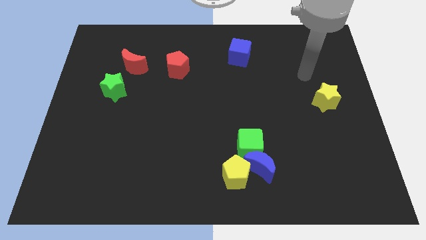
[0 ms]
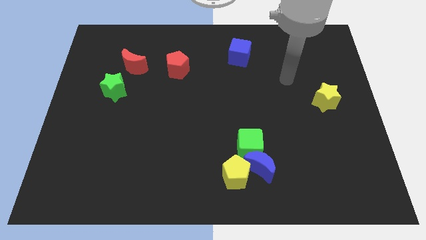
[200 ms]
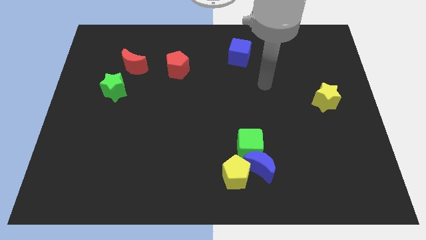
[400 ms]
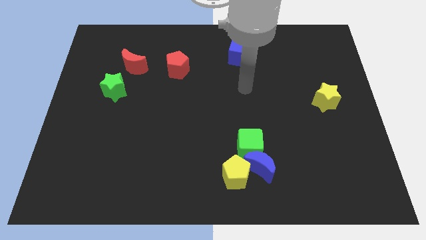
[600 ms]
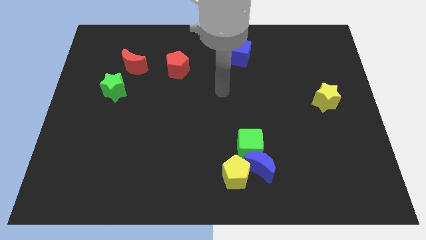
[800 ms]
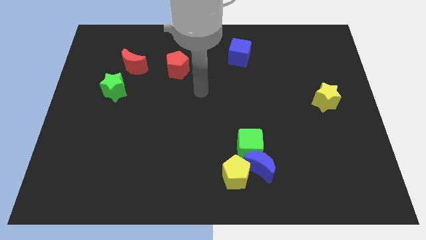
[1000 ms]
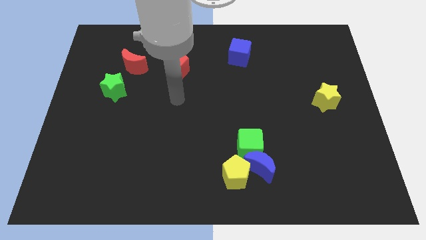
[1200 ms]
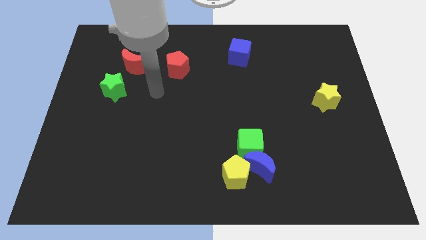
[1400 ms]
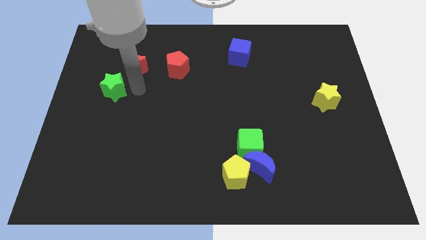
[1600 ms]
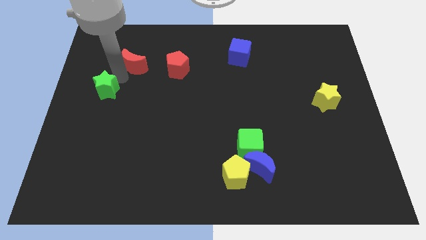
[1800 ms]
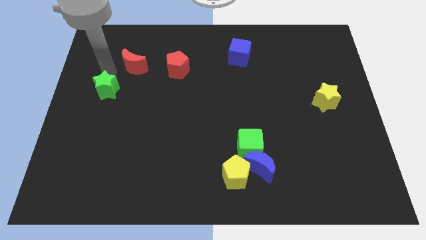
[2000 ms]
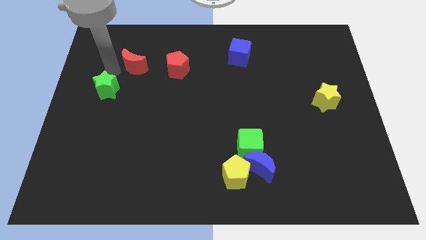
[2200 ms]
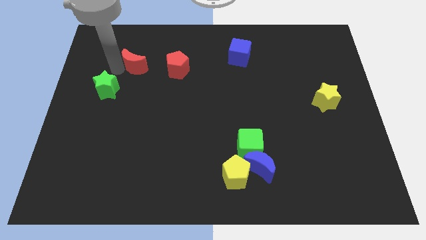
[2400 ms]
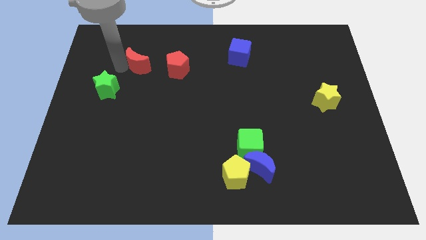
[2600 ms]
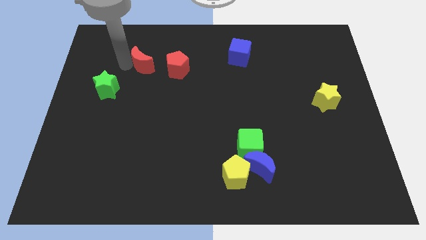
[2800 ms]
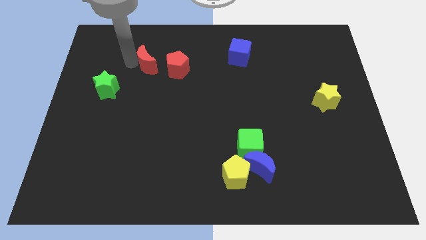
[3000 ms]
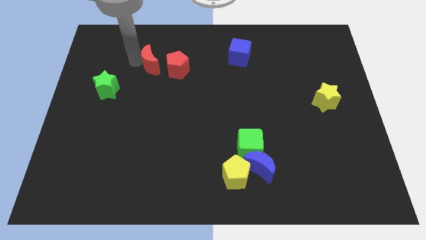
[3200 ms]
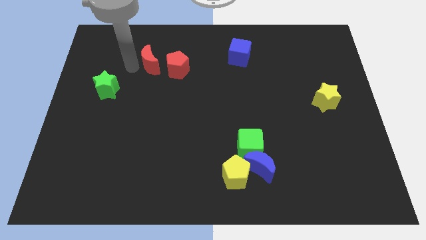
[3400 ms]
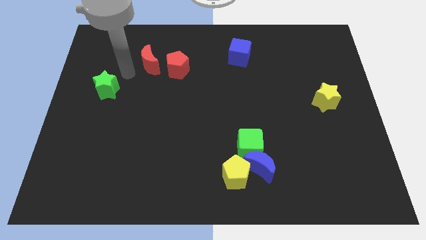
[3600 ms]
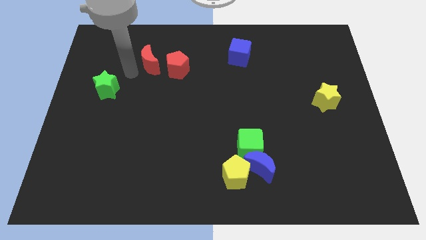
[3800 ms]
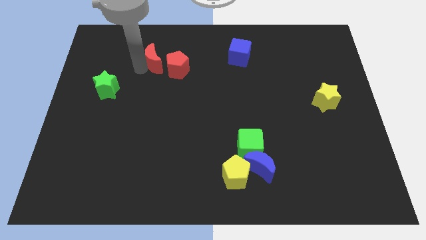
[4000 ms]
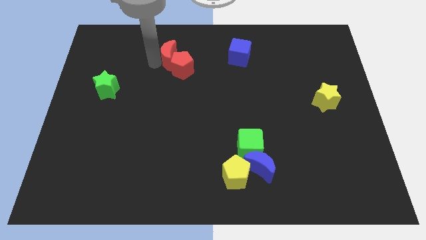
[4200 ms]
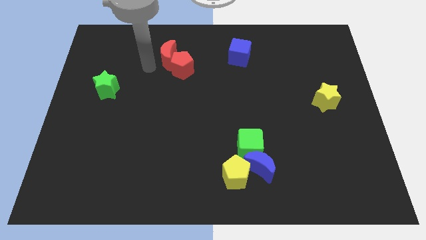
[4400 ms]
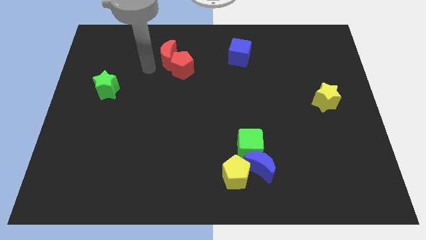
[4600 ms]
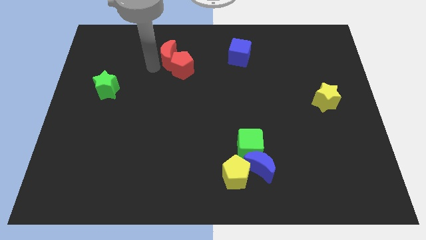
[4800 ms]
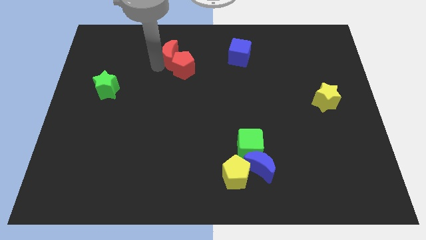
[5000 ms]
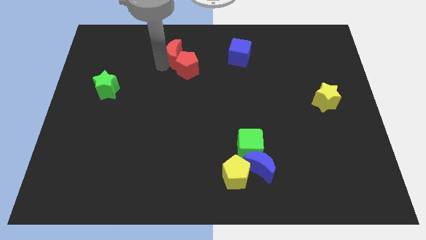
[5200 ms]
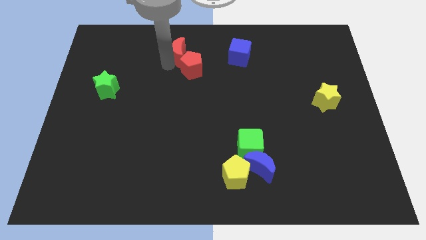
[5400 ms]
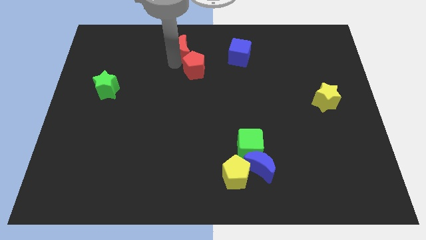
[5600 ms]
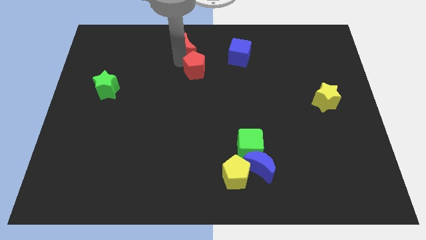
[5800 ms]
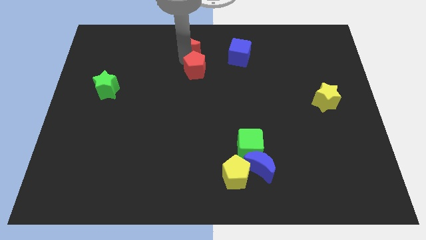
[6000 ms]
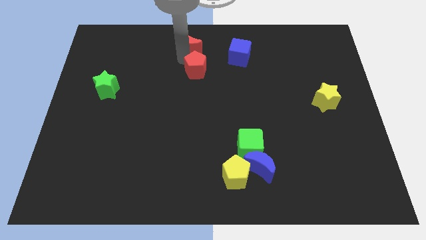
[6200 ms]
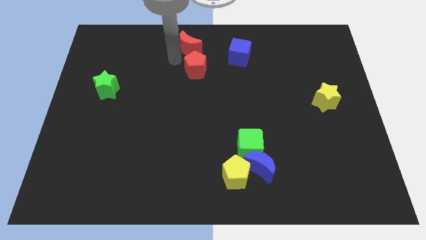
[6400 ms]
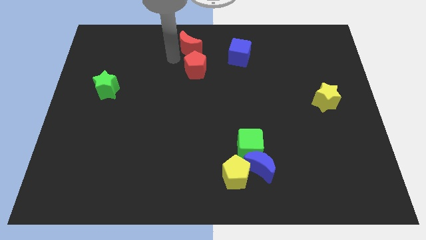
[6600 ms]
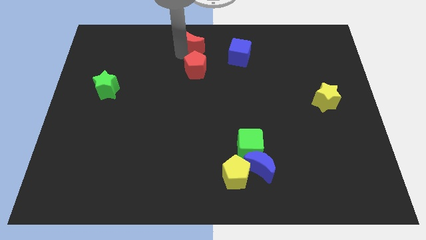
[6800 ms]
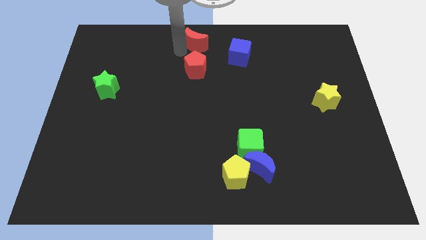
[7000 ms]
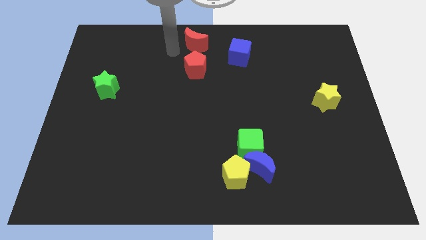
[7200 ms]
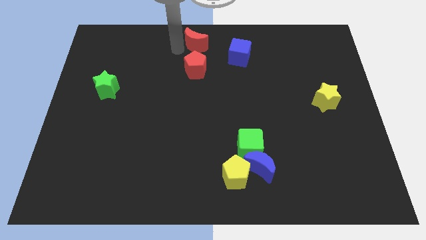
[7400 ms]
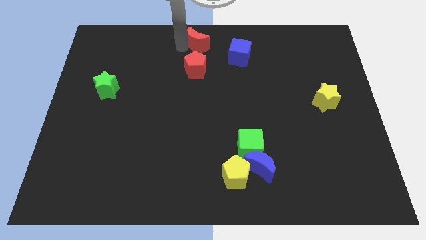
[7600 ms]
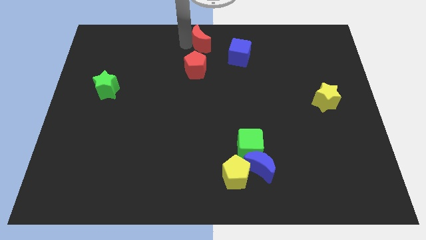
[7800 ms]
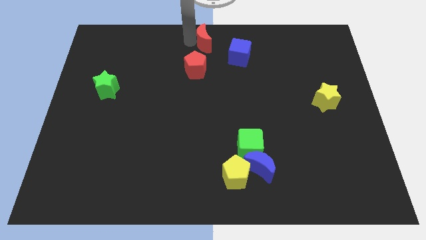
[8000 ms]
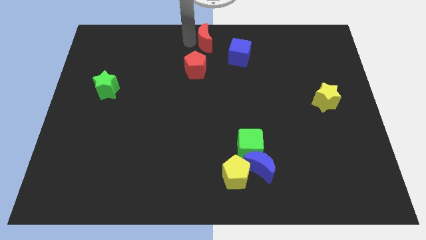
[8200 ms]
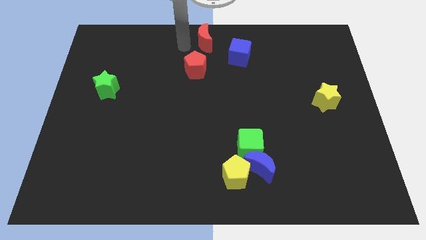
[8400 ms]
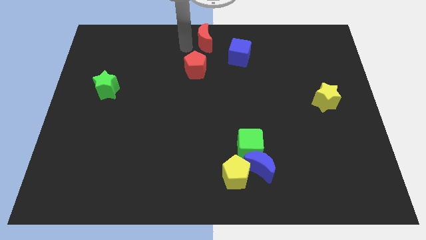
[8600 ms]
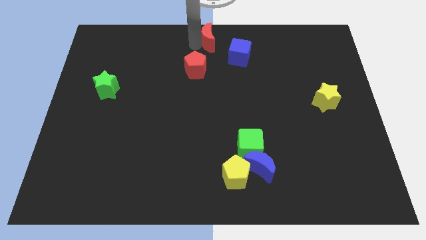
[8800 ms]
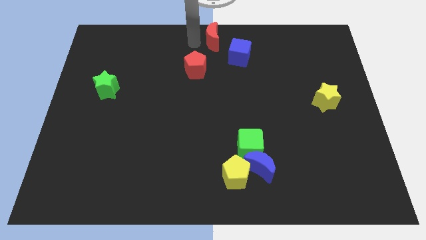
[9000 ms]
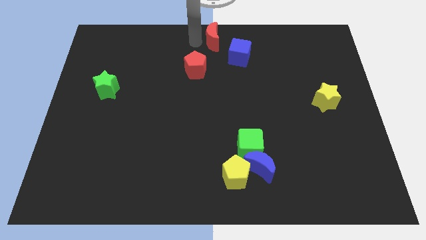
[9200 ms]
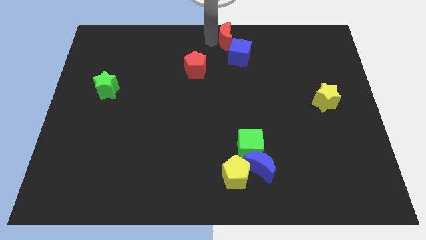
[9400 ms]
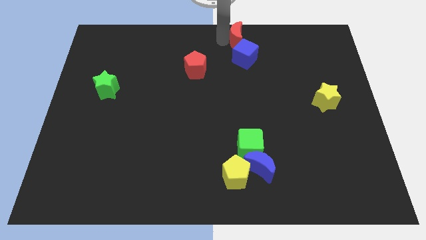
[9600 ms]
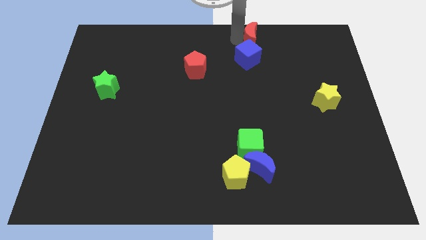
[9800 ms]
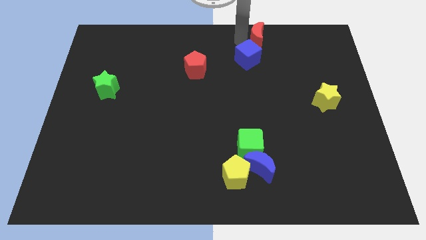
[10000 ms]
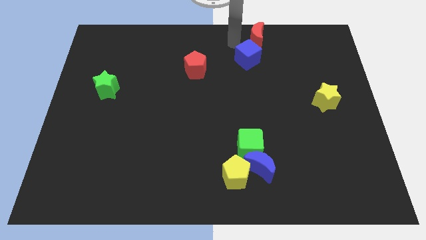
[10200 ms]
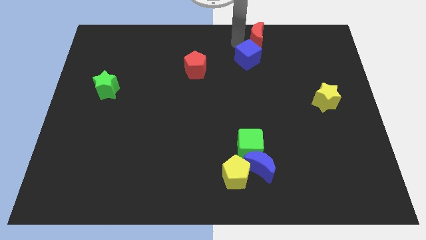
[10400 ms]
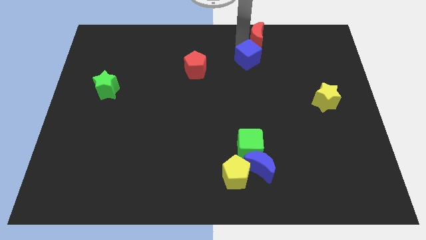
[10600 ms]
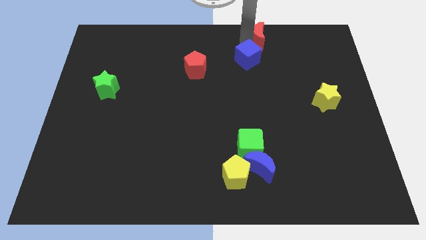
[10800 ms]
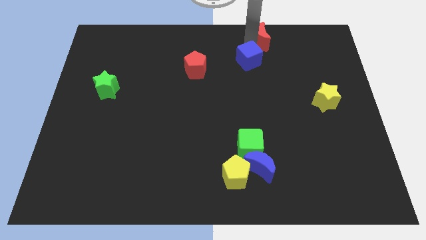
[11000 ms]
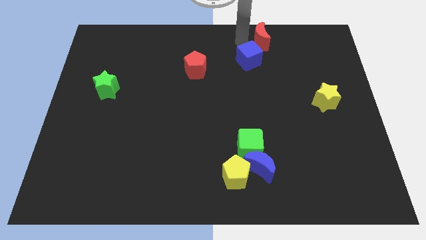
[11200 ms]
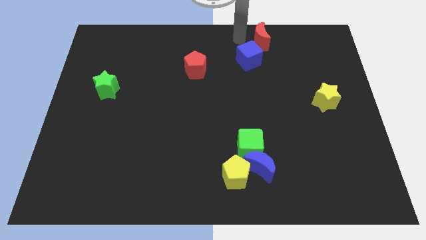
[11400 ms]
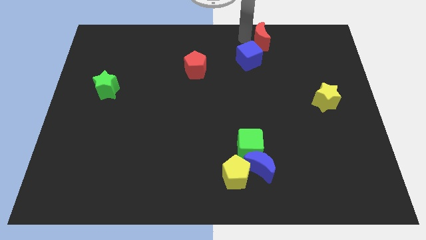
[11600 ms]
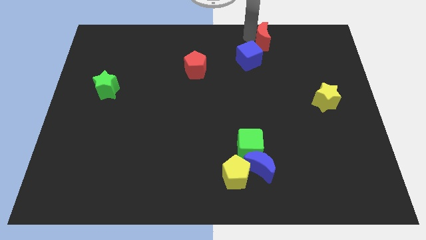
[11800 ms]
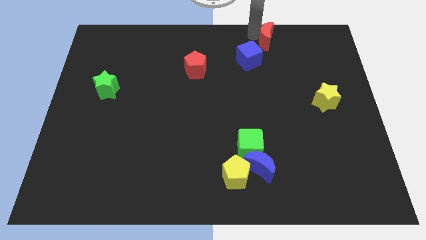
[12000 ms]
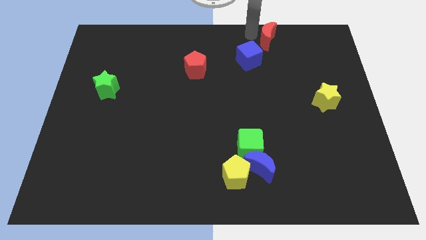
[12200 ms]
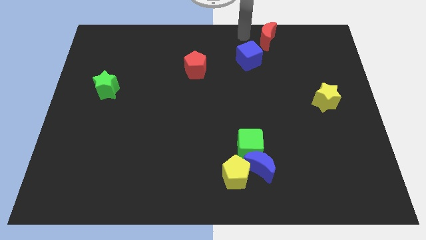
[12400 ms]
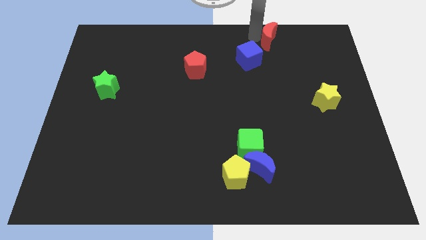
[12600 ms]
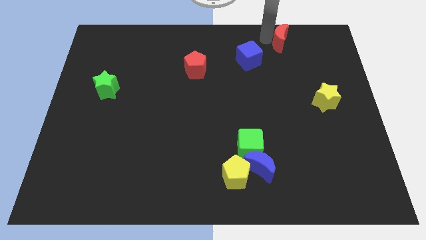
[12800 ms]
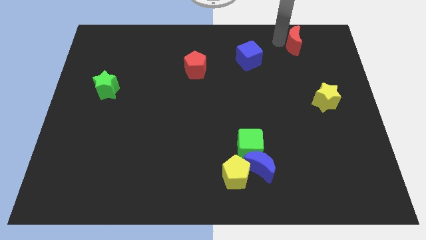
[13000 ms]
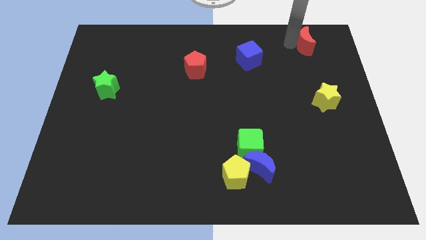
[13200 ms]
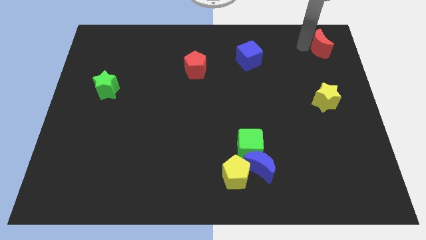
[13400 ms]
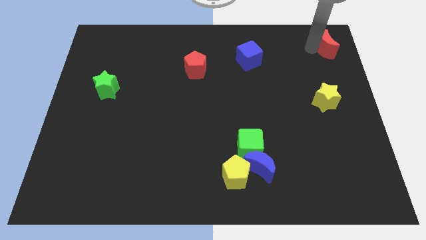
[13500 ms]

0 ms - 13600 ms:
put the red moon to the top right corner

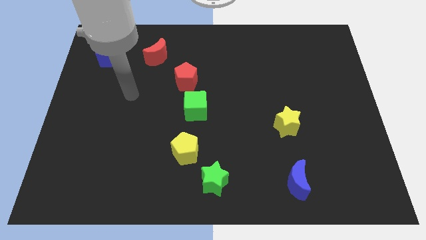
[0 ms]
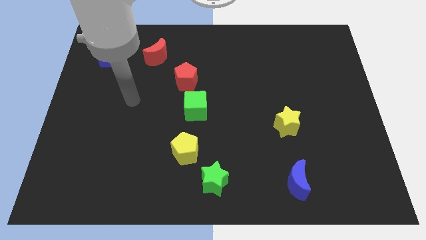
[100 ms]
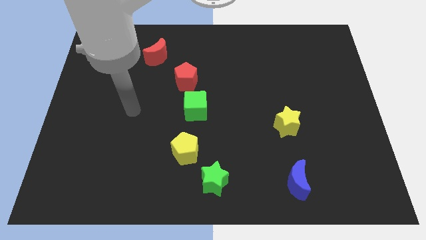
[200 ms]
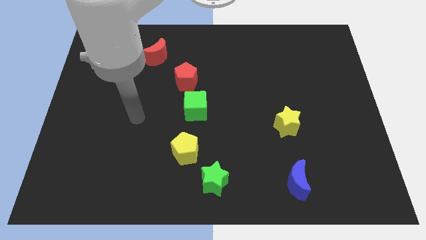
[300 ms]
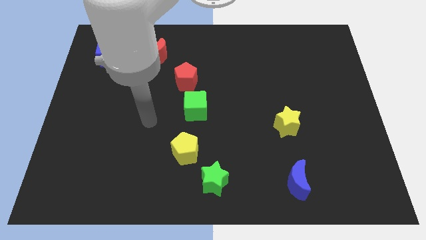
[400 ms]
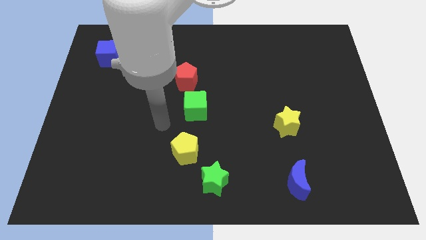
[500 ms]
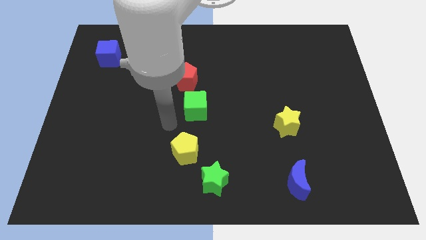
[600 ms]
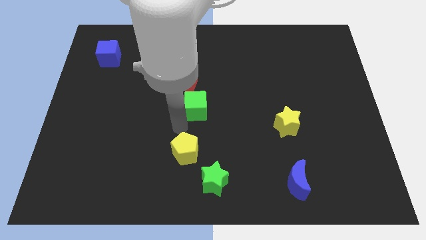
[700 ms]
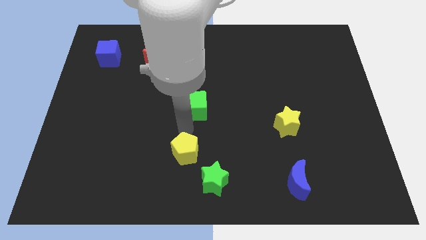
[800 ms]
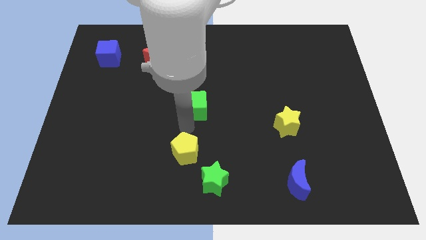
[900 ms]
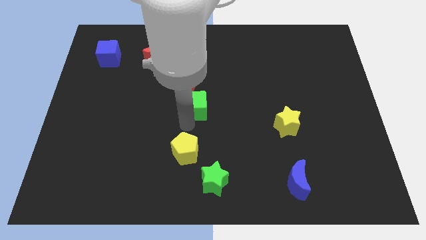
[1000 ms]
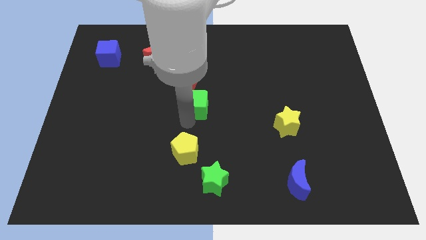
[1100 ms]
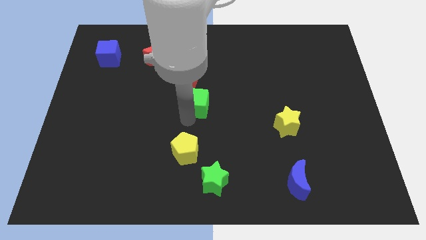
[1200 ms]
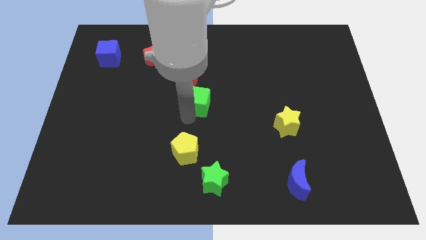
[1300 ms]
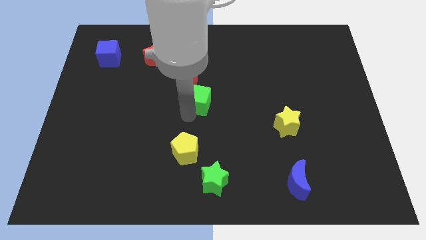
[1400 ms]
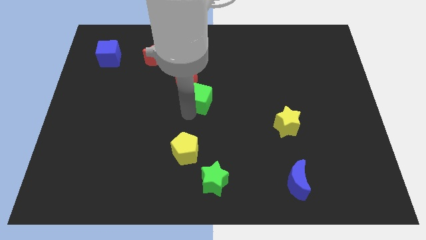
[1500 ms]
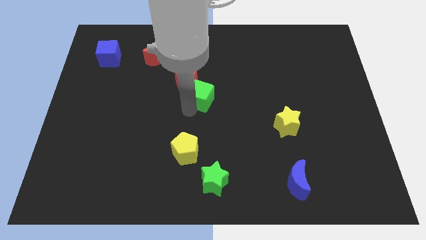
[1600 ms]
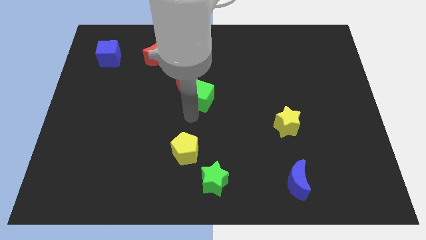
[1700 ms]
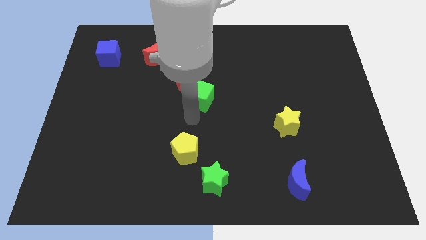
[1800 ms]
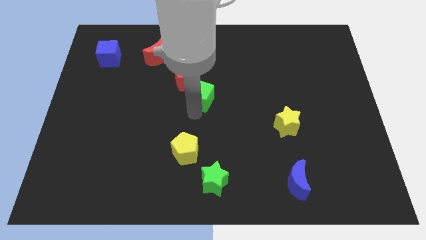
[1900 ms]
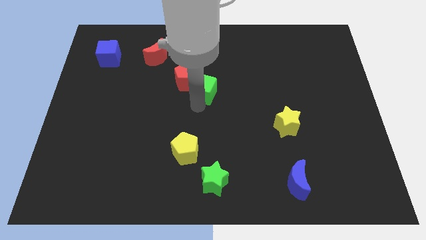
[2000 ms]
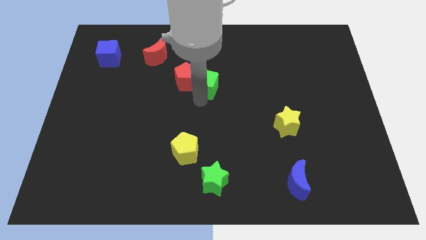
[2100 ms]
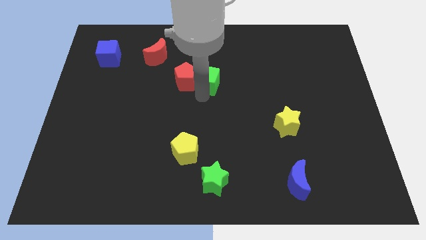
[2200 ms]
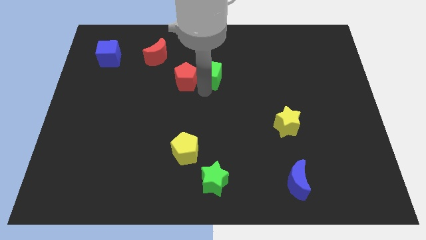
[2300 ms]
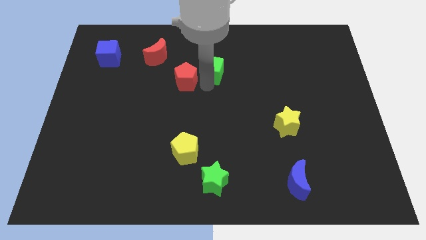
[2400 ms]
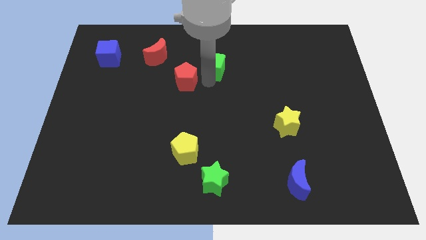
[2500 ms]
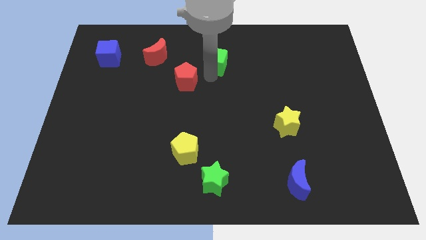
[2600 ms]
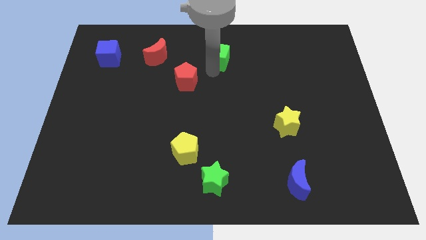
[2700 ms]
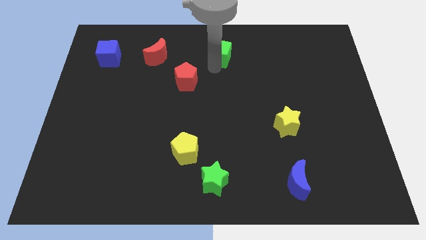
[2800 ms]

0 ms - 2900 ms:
put the green cube to the top side
